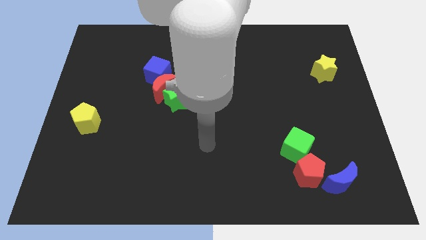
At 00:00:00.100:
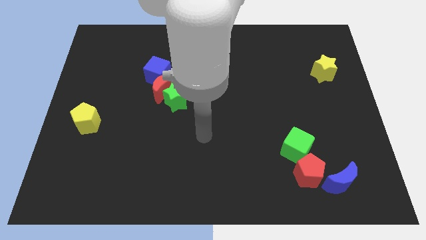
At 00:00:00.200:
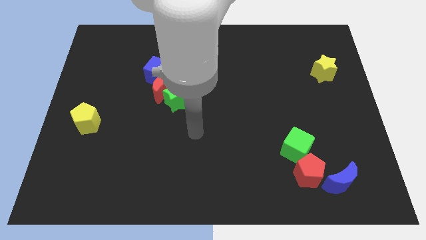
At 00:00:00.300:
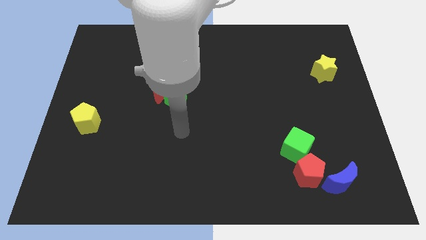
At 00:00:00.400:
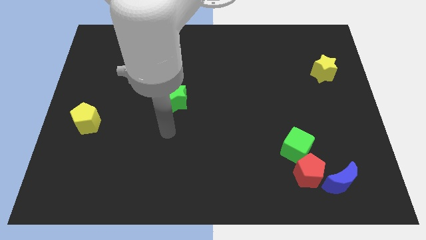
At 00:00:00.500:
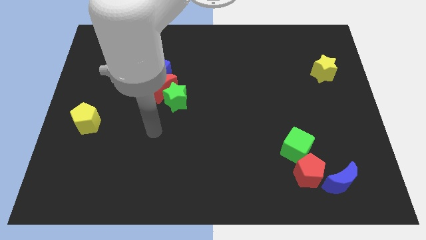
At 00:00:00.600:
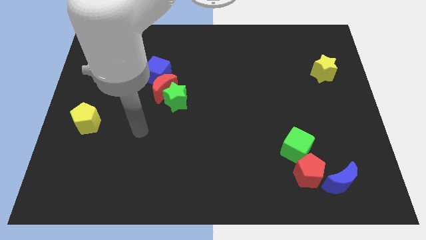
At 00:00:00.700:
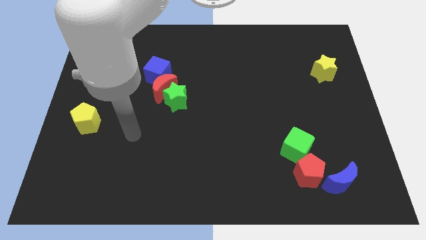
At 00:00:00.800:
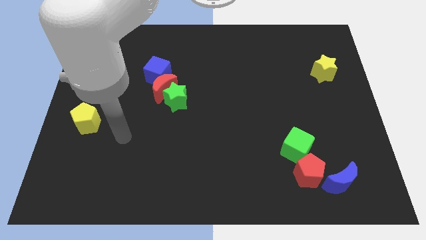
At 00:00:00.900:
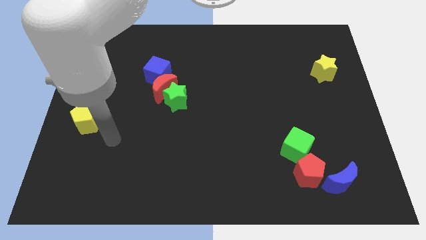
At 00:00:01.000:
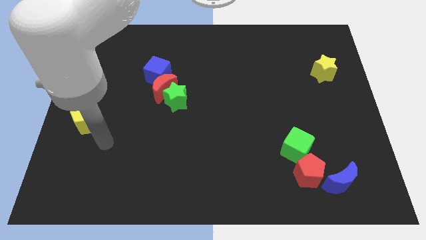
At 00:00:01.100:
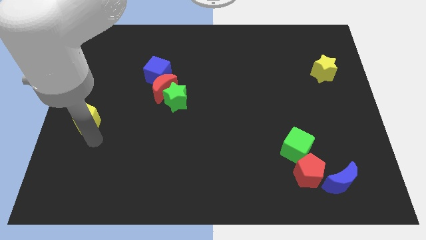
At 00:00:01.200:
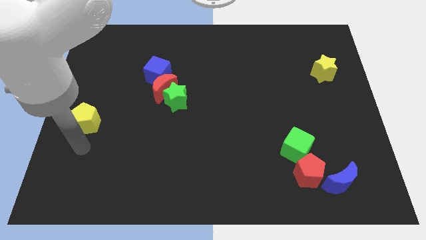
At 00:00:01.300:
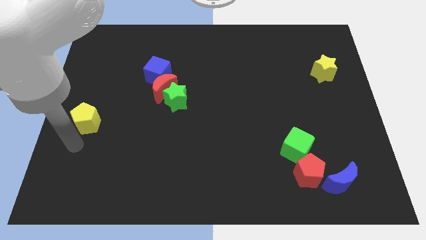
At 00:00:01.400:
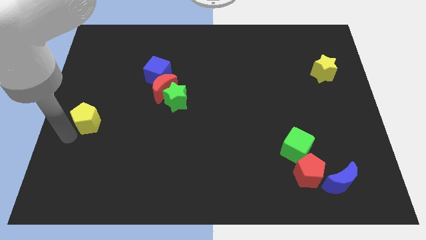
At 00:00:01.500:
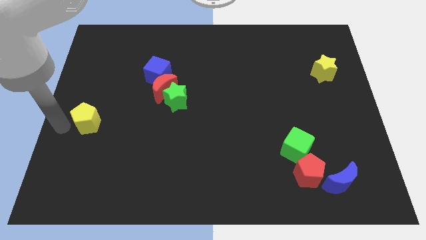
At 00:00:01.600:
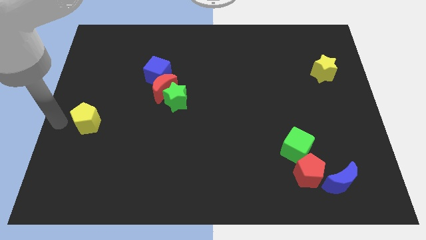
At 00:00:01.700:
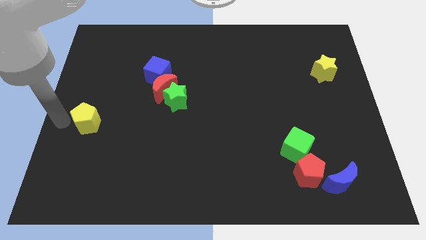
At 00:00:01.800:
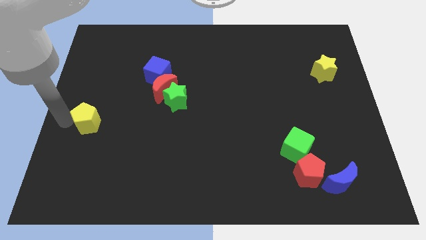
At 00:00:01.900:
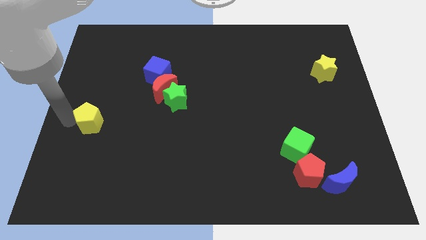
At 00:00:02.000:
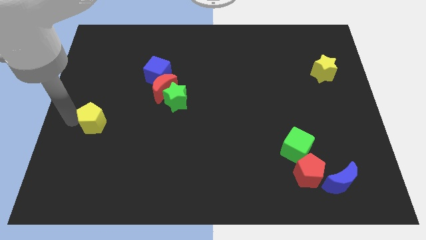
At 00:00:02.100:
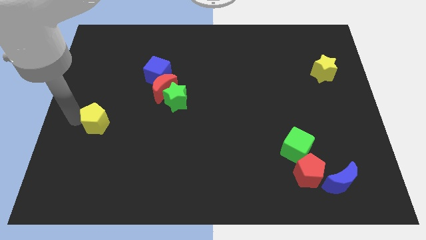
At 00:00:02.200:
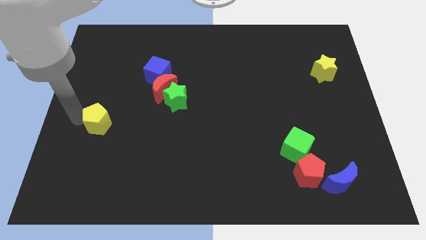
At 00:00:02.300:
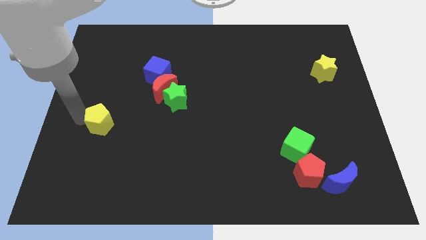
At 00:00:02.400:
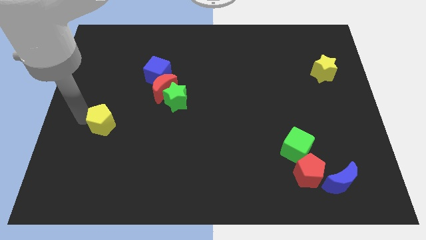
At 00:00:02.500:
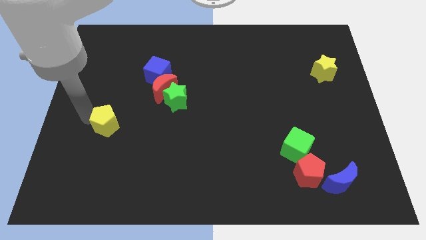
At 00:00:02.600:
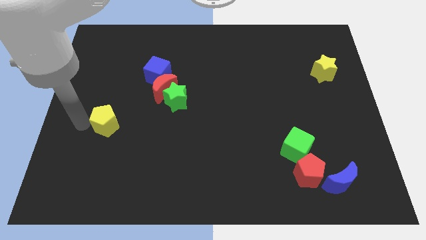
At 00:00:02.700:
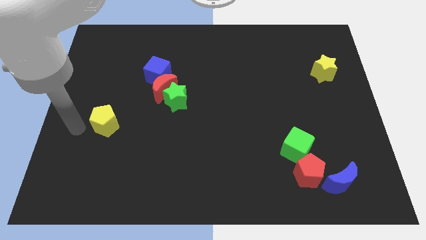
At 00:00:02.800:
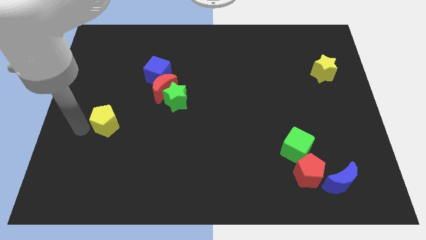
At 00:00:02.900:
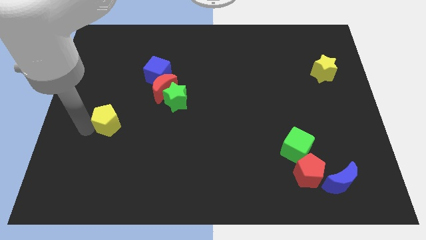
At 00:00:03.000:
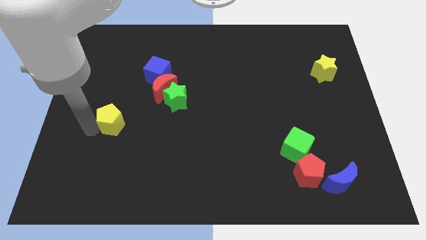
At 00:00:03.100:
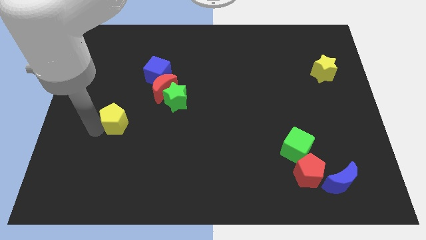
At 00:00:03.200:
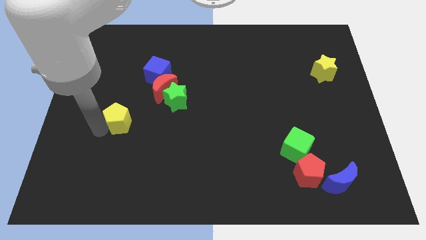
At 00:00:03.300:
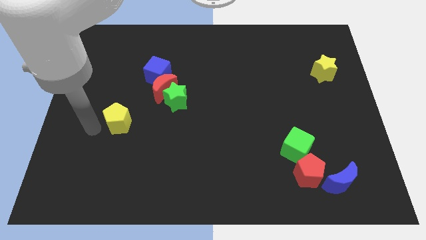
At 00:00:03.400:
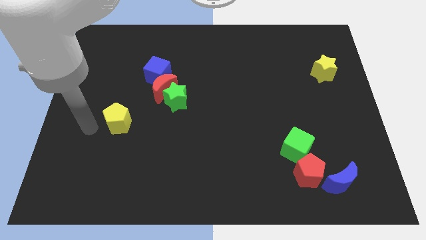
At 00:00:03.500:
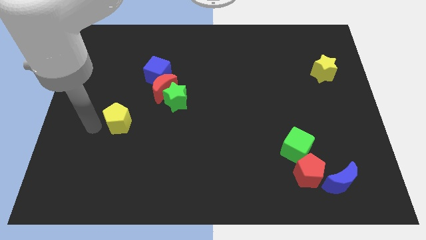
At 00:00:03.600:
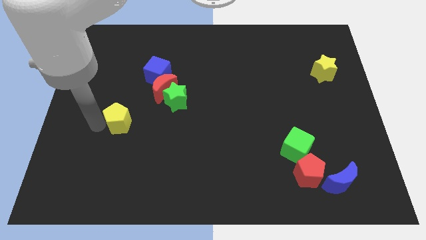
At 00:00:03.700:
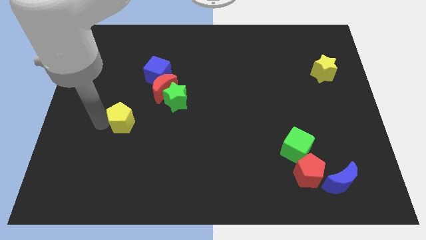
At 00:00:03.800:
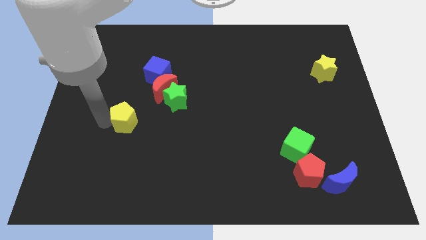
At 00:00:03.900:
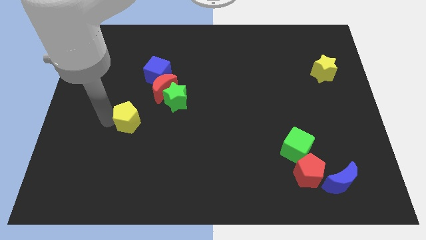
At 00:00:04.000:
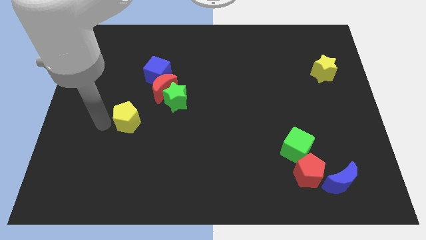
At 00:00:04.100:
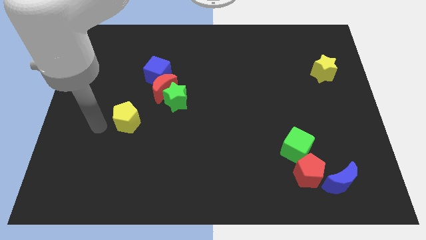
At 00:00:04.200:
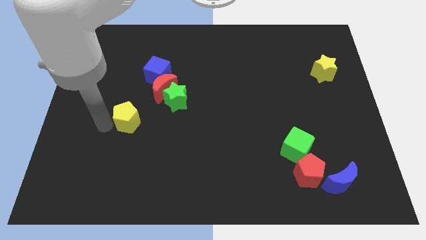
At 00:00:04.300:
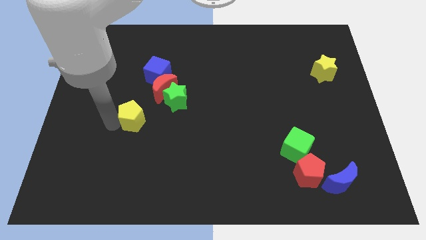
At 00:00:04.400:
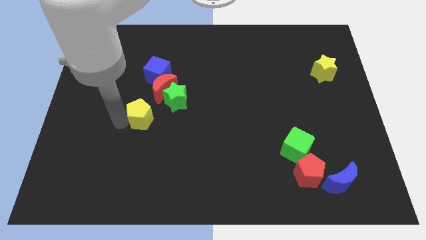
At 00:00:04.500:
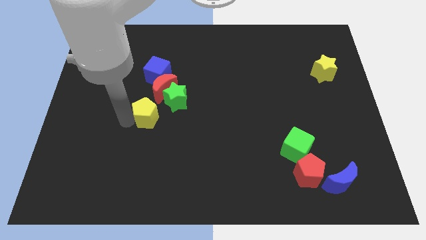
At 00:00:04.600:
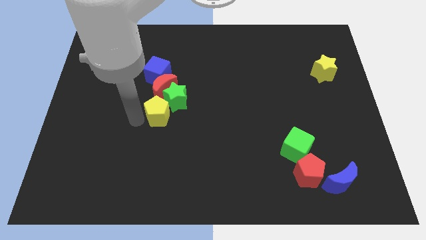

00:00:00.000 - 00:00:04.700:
put the yellow pentagon towards the green star

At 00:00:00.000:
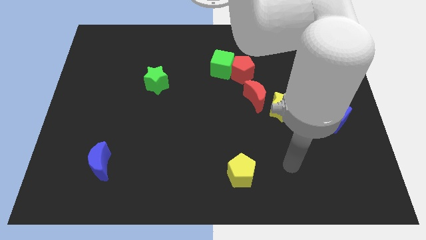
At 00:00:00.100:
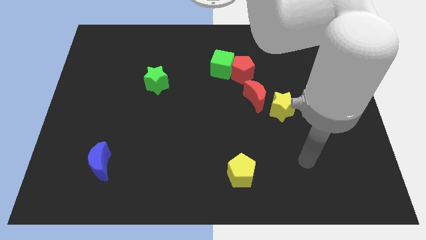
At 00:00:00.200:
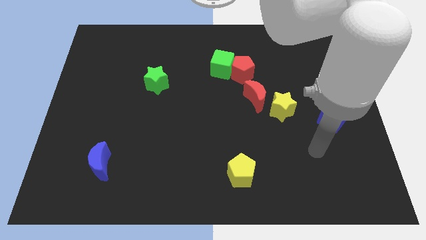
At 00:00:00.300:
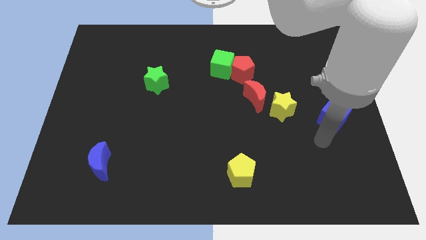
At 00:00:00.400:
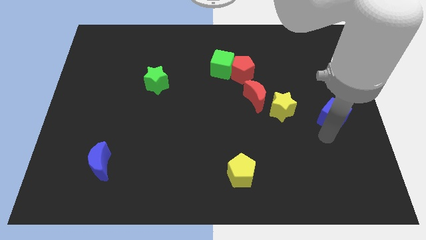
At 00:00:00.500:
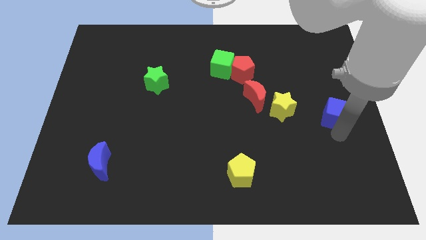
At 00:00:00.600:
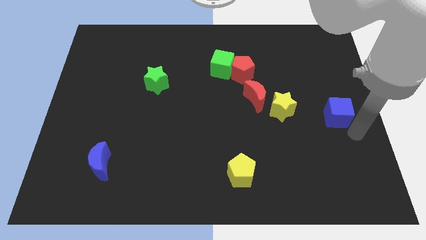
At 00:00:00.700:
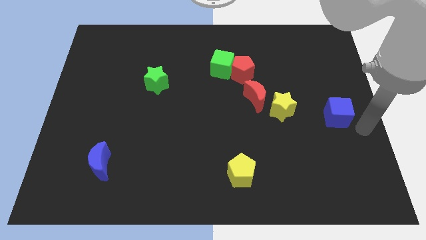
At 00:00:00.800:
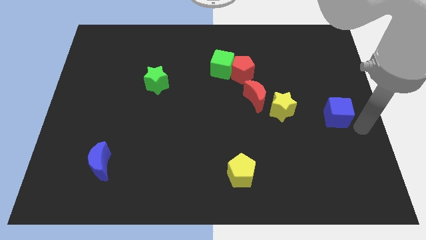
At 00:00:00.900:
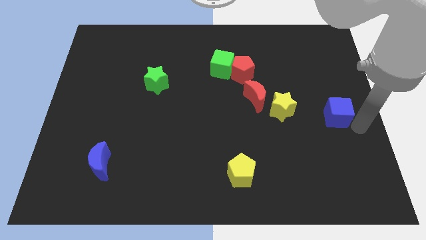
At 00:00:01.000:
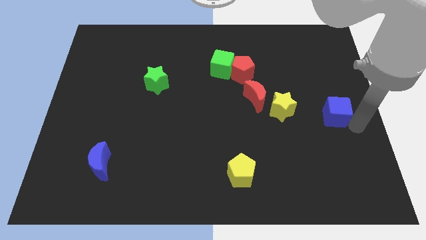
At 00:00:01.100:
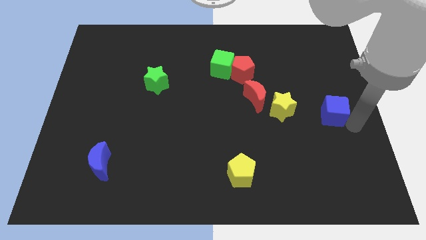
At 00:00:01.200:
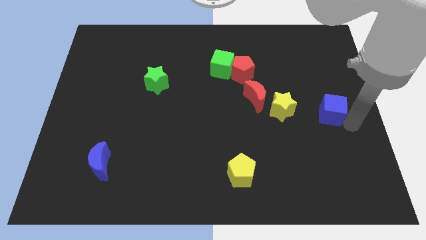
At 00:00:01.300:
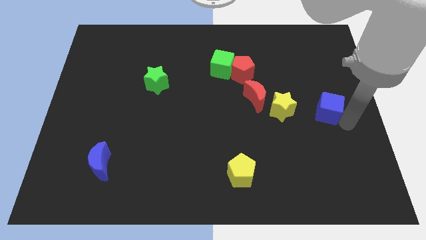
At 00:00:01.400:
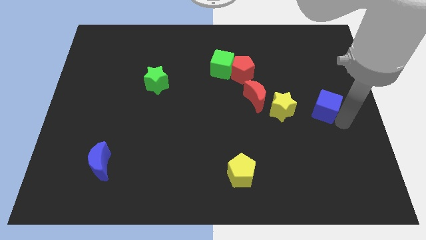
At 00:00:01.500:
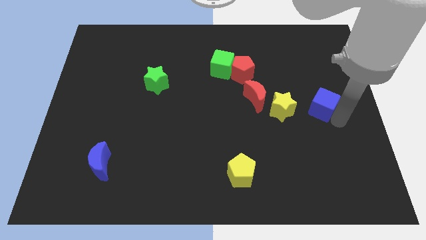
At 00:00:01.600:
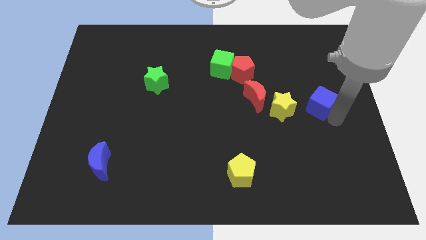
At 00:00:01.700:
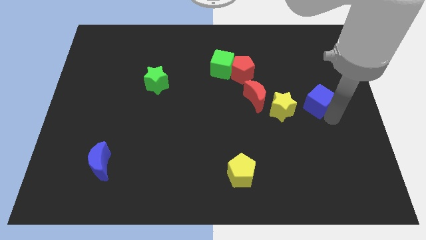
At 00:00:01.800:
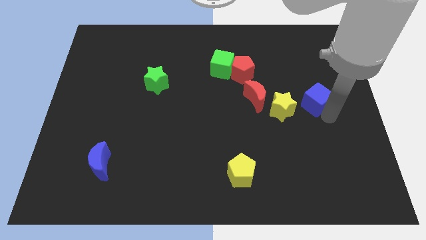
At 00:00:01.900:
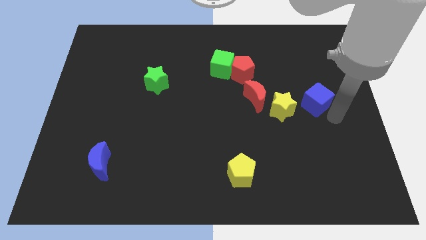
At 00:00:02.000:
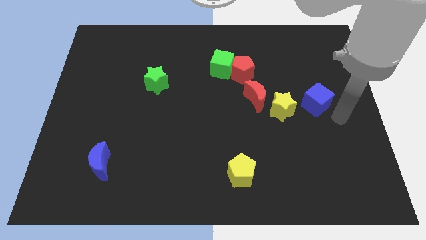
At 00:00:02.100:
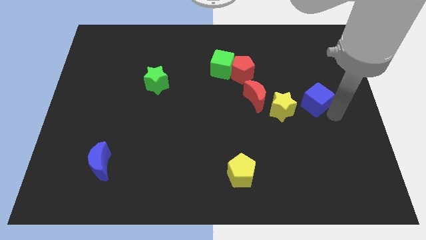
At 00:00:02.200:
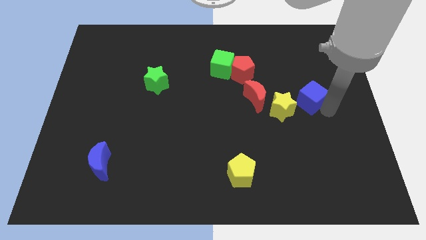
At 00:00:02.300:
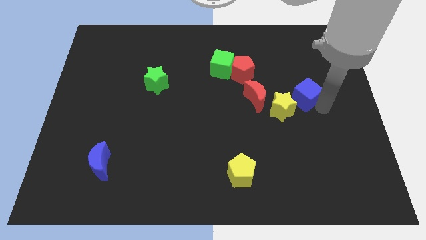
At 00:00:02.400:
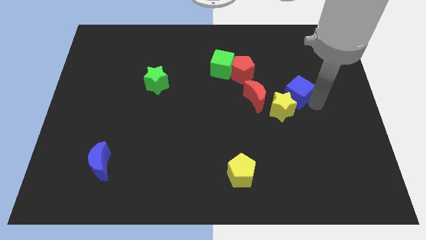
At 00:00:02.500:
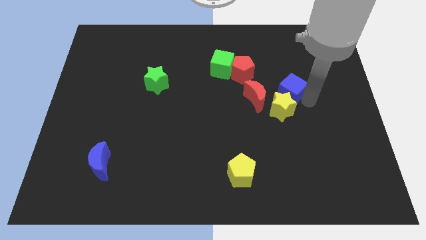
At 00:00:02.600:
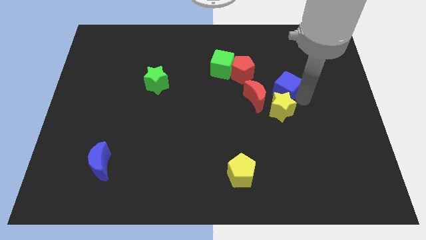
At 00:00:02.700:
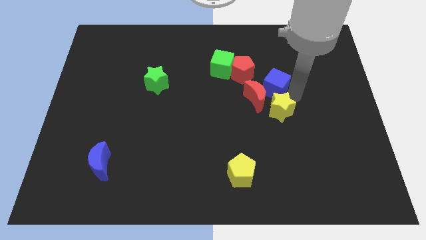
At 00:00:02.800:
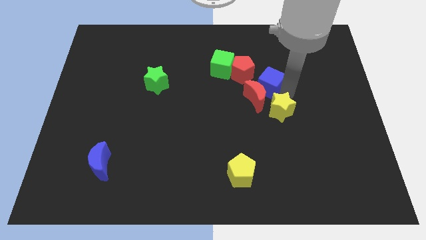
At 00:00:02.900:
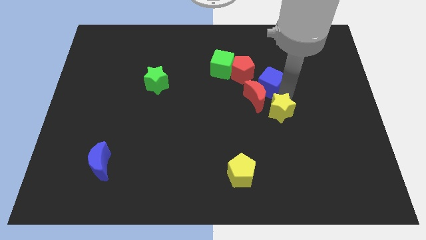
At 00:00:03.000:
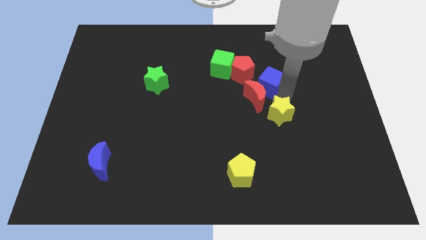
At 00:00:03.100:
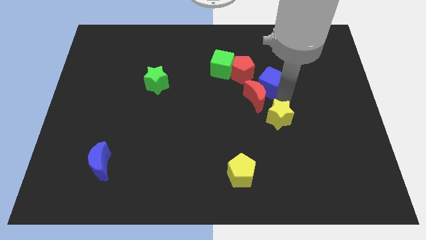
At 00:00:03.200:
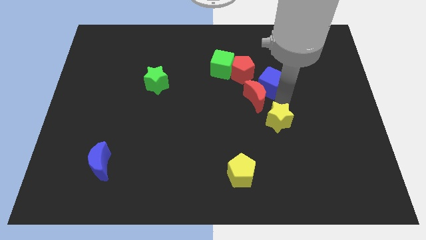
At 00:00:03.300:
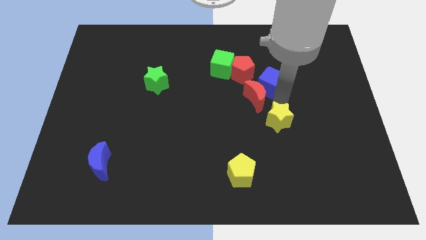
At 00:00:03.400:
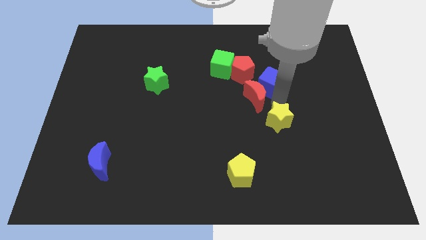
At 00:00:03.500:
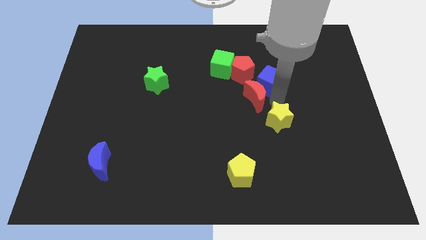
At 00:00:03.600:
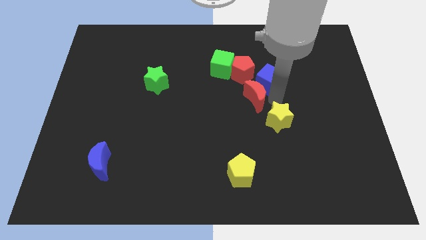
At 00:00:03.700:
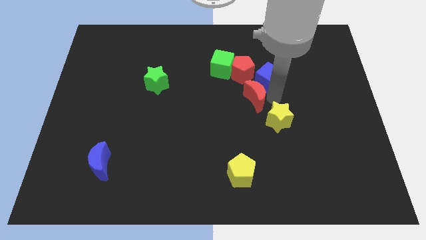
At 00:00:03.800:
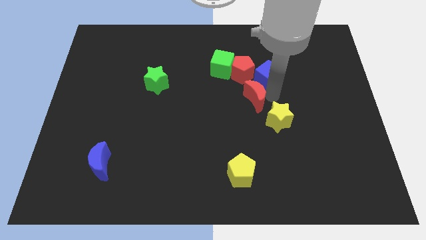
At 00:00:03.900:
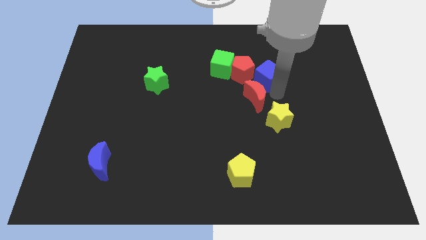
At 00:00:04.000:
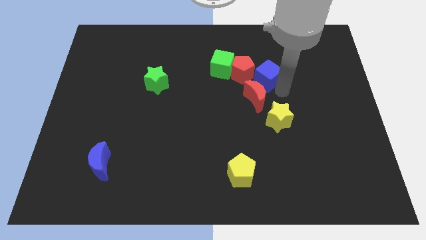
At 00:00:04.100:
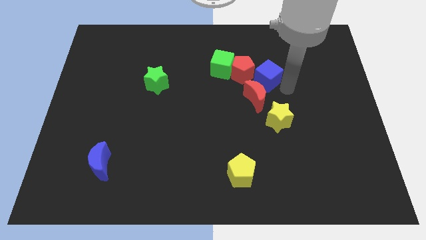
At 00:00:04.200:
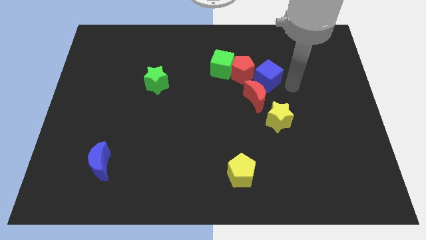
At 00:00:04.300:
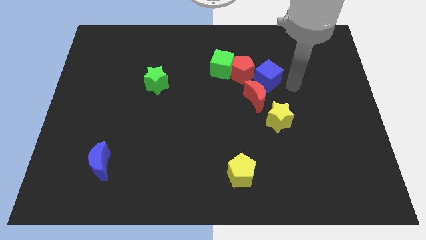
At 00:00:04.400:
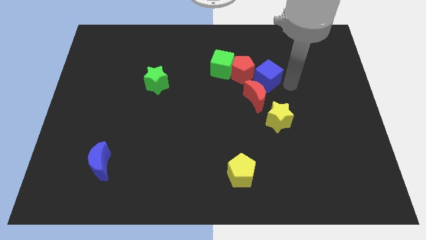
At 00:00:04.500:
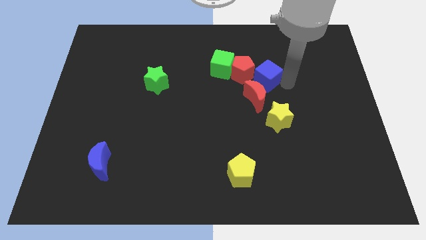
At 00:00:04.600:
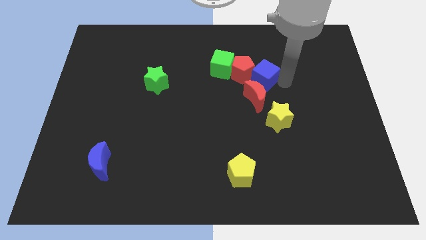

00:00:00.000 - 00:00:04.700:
push the blue cube next to the red pentagon
